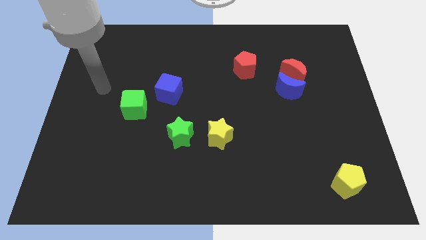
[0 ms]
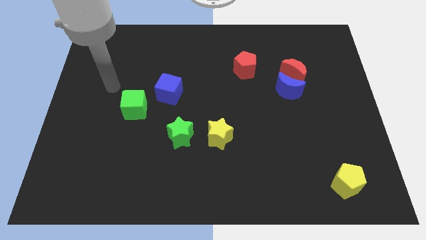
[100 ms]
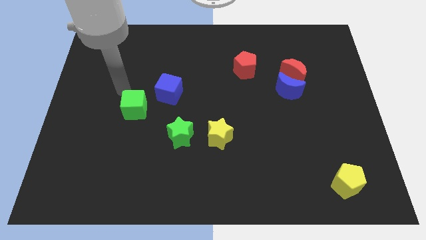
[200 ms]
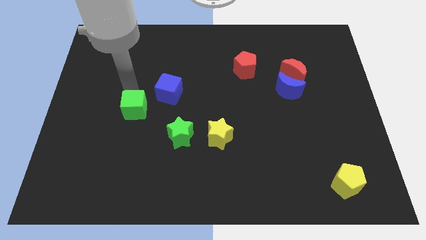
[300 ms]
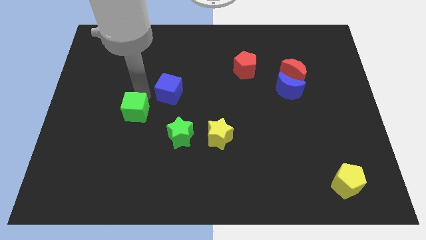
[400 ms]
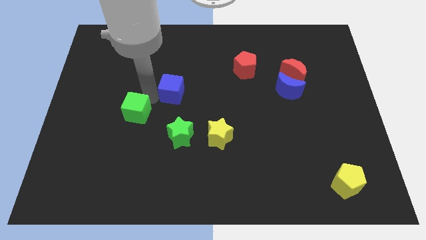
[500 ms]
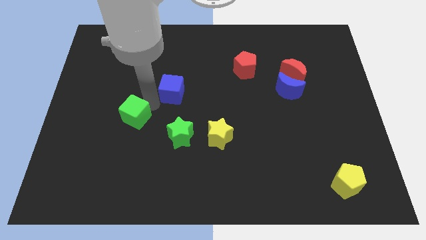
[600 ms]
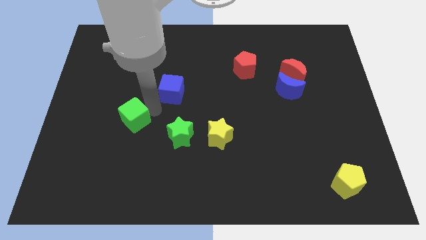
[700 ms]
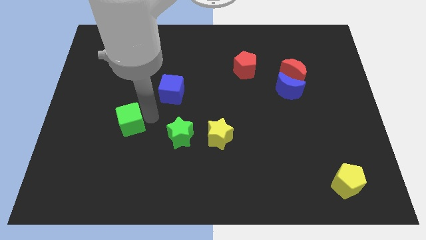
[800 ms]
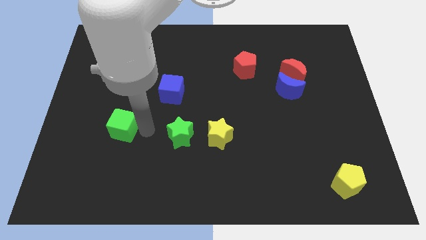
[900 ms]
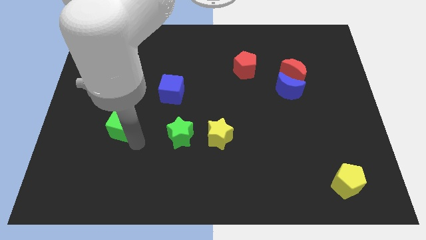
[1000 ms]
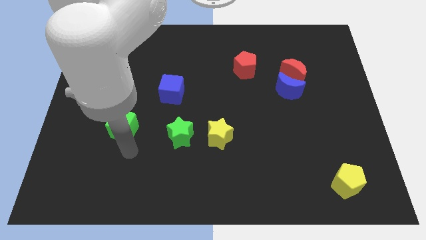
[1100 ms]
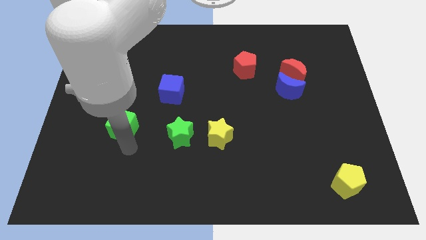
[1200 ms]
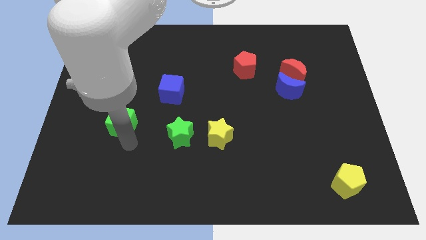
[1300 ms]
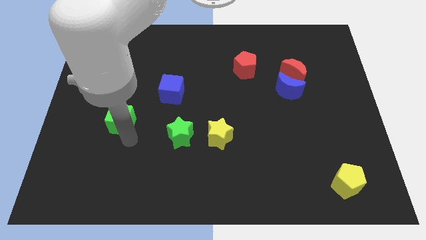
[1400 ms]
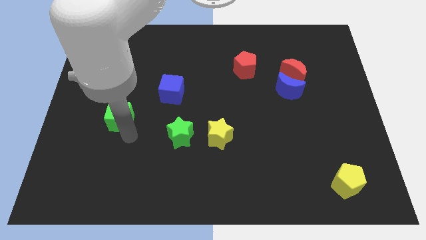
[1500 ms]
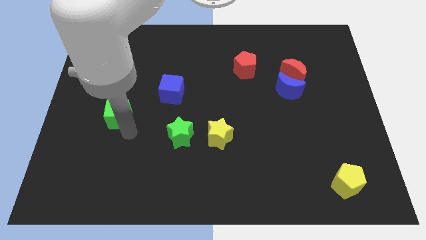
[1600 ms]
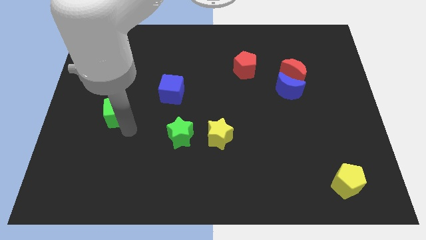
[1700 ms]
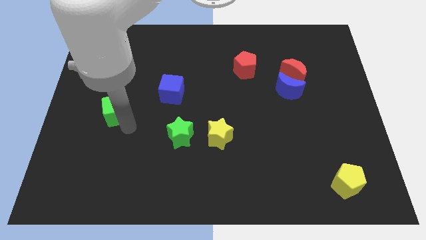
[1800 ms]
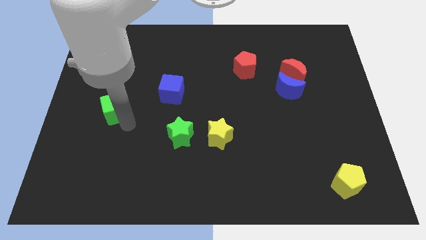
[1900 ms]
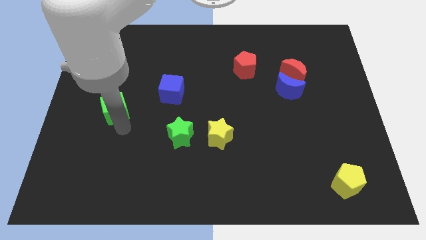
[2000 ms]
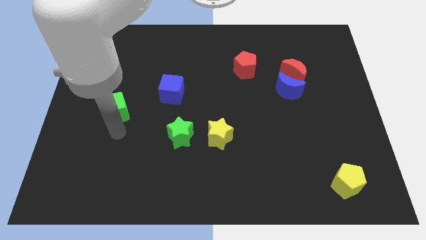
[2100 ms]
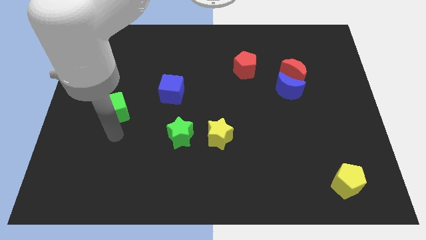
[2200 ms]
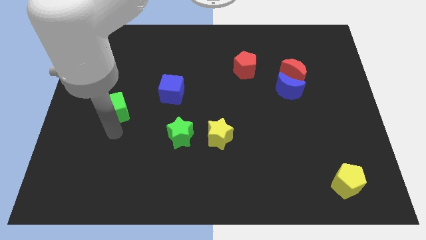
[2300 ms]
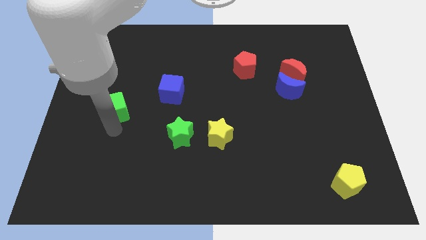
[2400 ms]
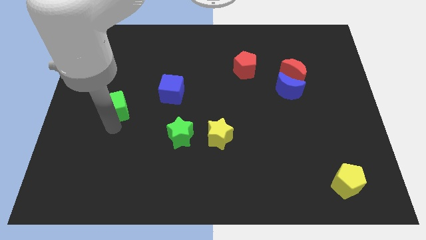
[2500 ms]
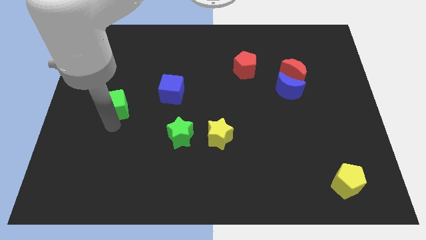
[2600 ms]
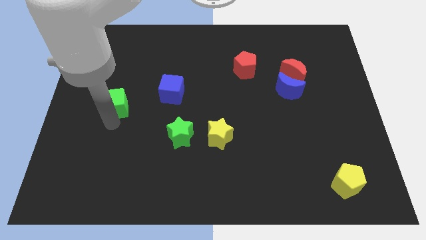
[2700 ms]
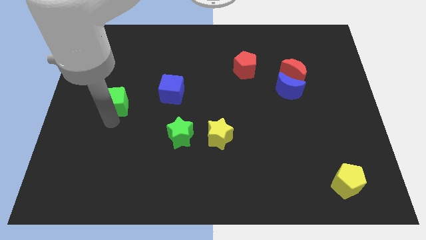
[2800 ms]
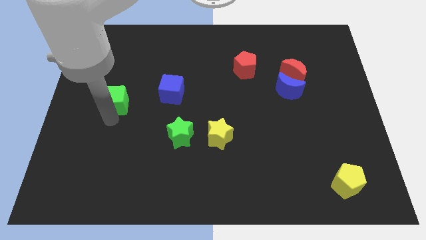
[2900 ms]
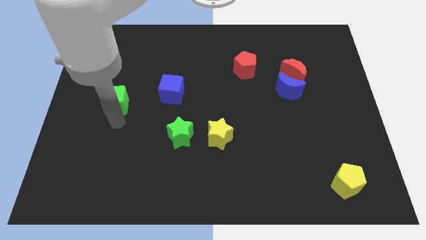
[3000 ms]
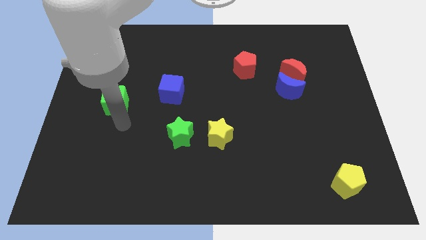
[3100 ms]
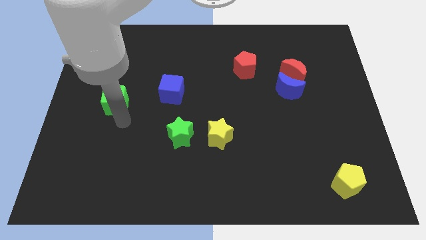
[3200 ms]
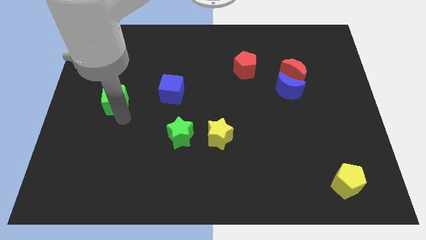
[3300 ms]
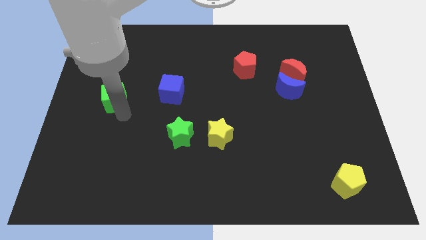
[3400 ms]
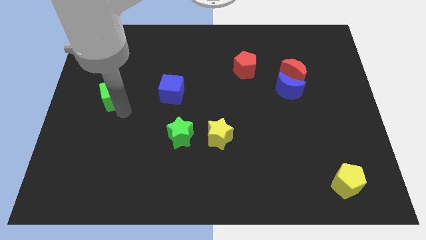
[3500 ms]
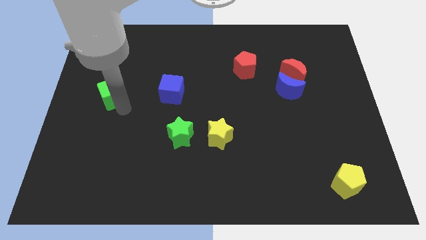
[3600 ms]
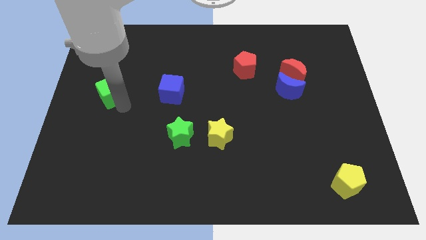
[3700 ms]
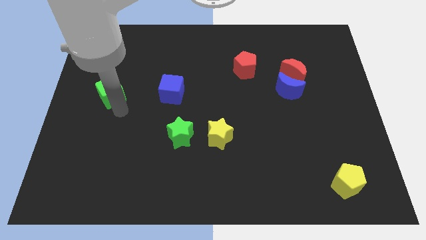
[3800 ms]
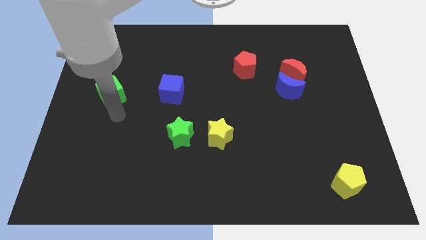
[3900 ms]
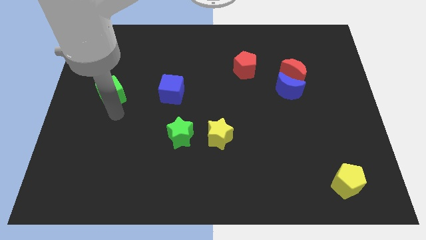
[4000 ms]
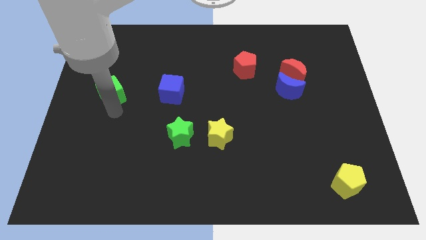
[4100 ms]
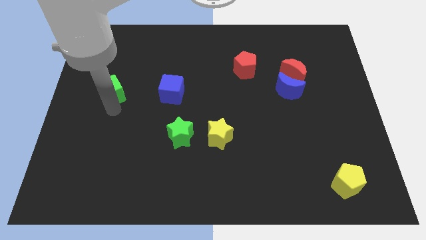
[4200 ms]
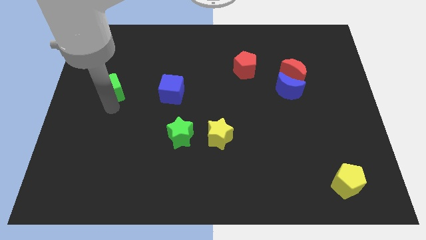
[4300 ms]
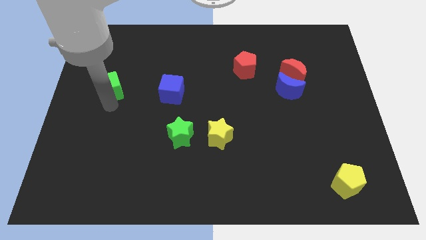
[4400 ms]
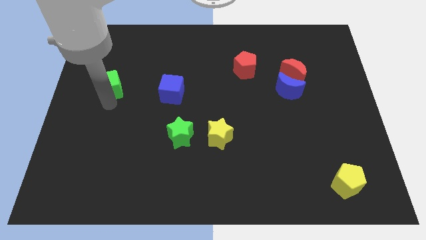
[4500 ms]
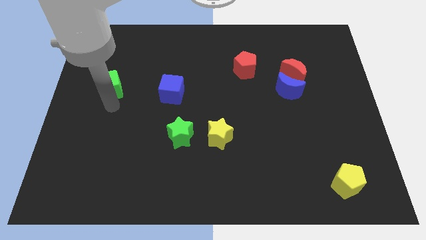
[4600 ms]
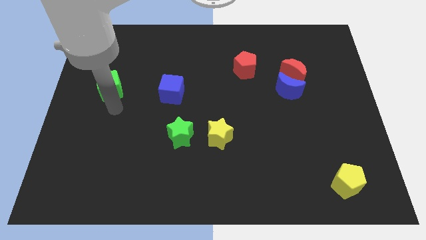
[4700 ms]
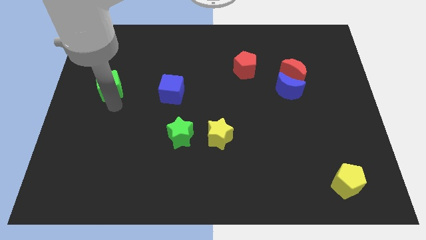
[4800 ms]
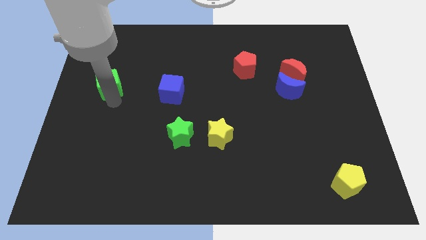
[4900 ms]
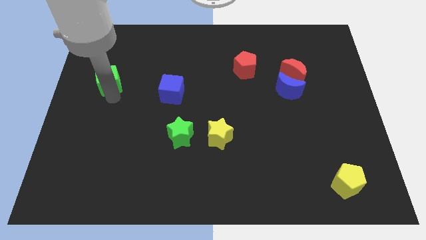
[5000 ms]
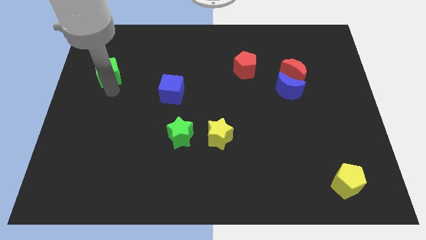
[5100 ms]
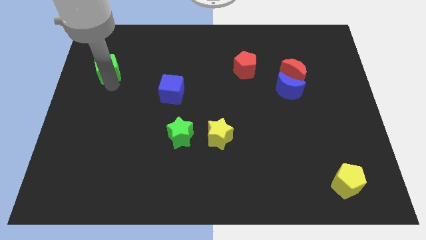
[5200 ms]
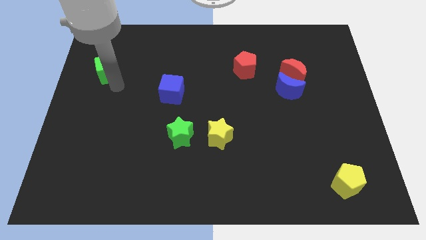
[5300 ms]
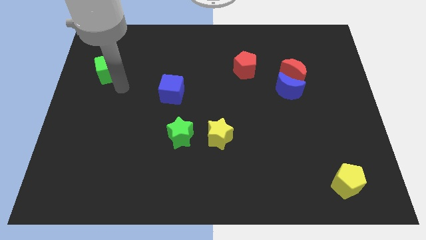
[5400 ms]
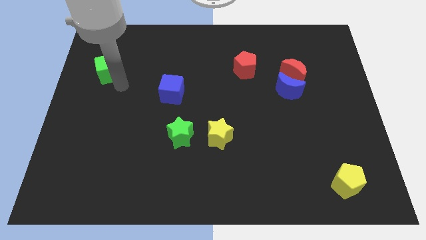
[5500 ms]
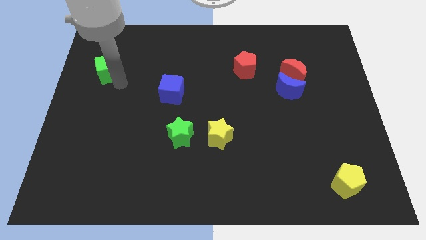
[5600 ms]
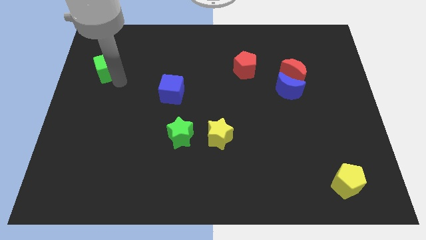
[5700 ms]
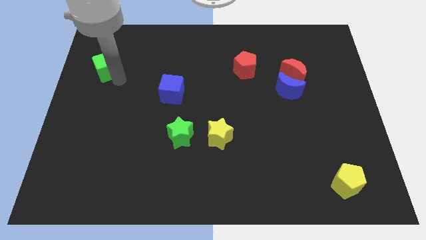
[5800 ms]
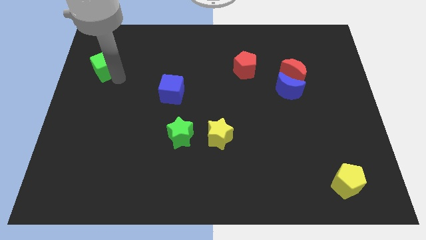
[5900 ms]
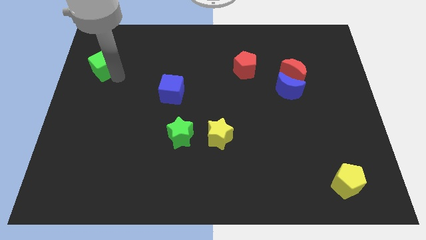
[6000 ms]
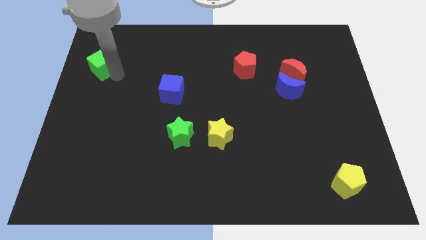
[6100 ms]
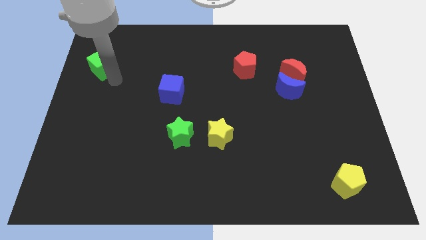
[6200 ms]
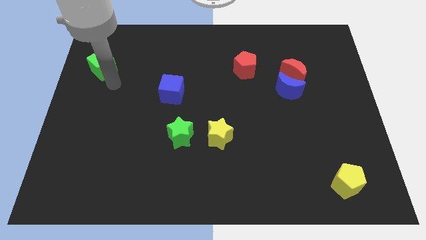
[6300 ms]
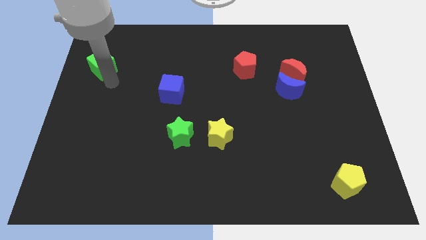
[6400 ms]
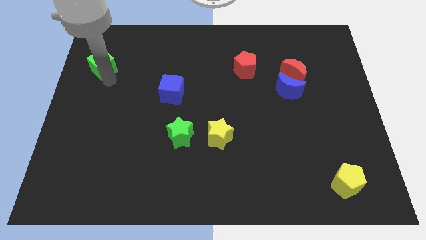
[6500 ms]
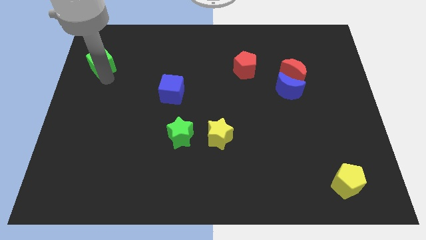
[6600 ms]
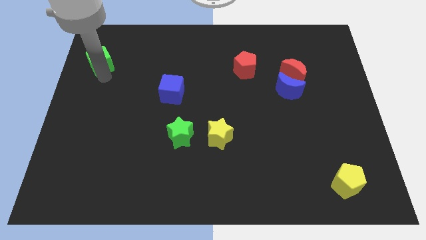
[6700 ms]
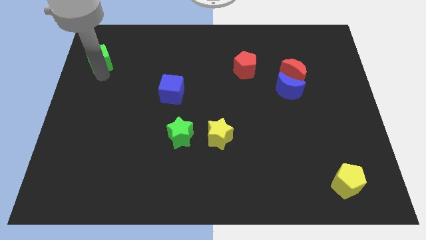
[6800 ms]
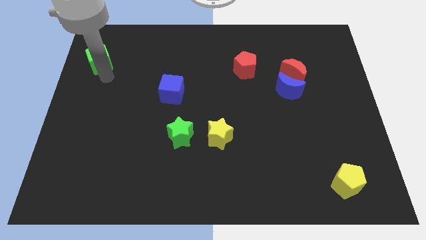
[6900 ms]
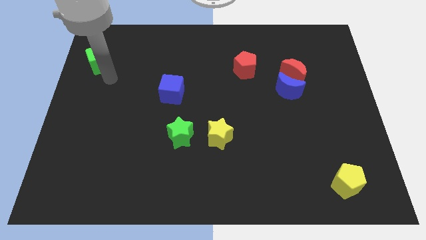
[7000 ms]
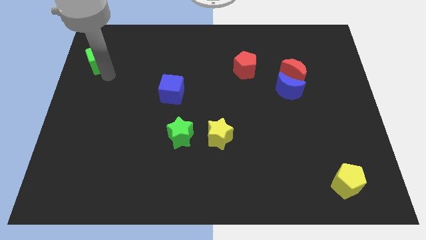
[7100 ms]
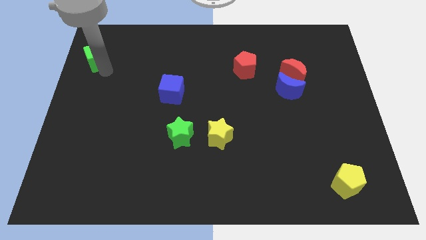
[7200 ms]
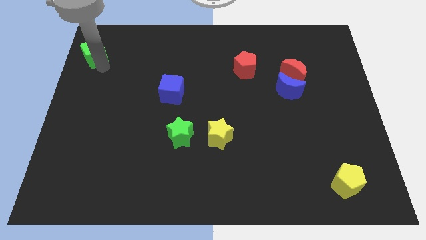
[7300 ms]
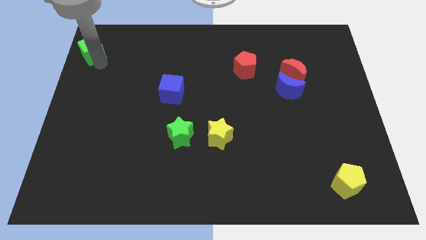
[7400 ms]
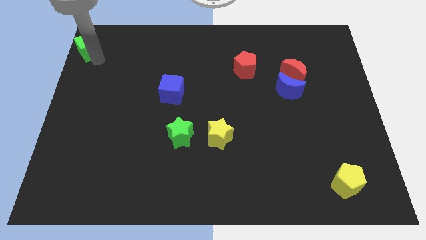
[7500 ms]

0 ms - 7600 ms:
put the green cube to the top left corner
